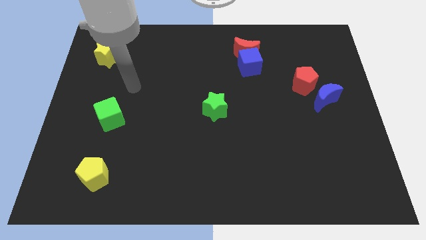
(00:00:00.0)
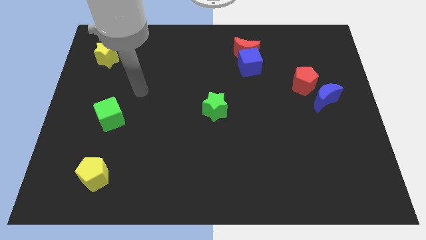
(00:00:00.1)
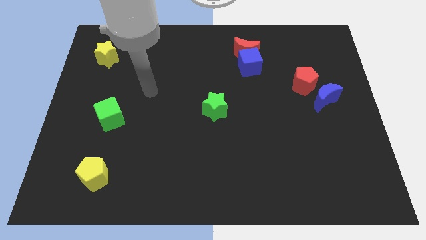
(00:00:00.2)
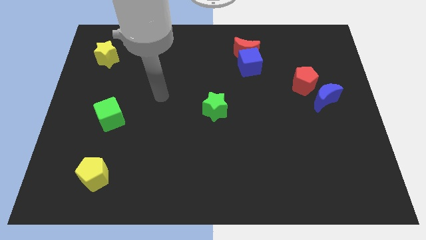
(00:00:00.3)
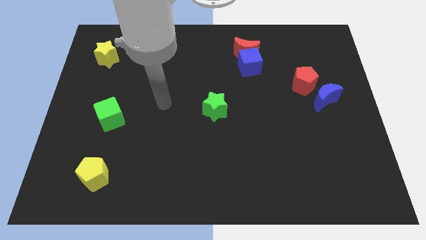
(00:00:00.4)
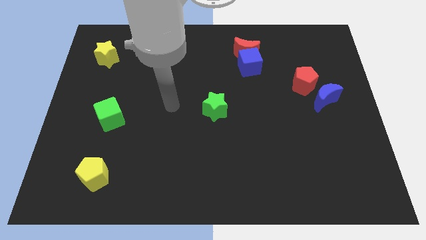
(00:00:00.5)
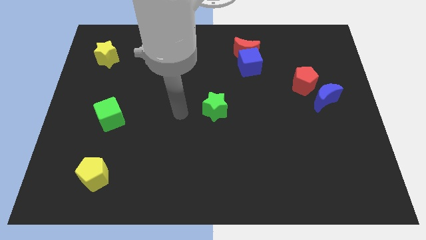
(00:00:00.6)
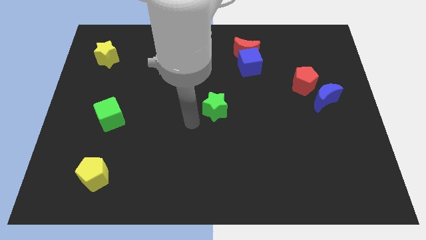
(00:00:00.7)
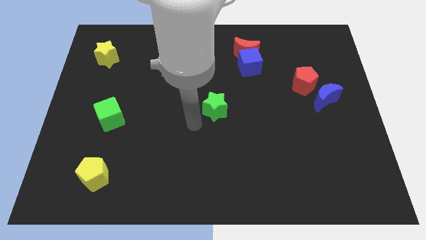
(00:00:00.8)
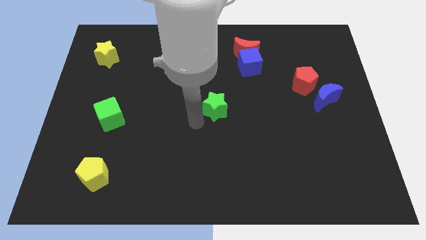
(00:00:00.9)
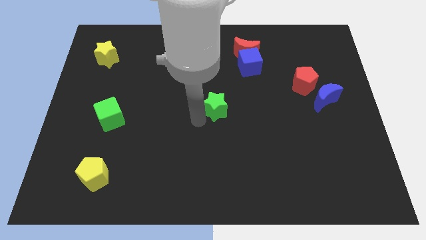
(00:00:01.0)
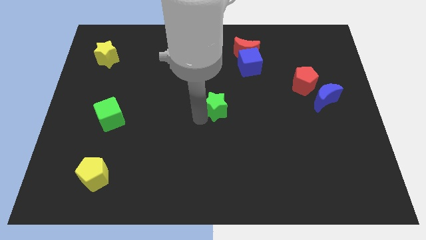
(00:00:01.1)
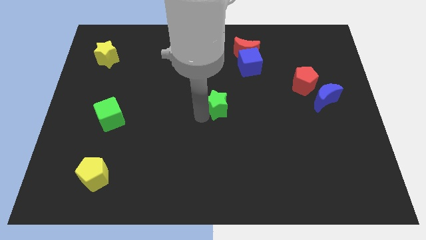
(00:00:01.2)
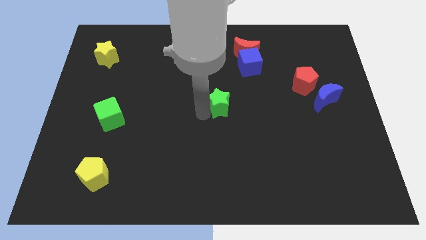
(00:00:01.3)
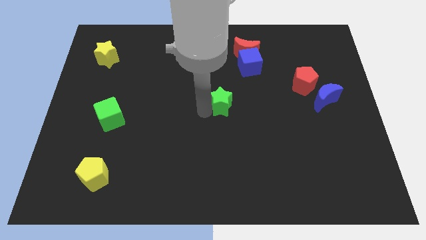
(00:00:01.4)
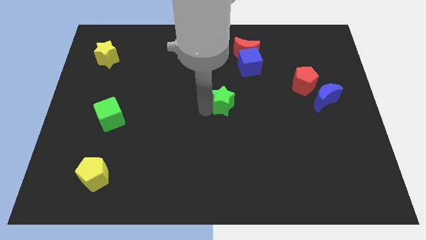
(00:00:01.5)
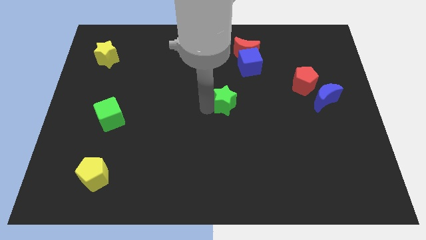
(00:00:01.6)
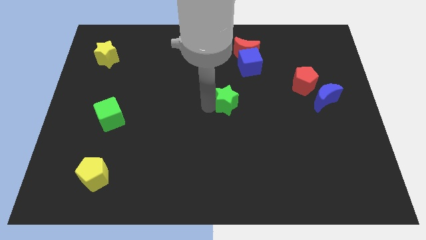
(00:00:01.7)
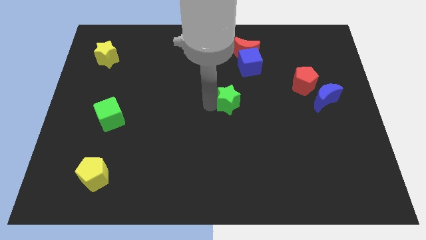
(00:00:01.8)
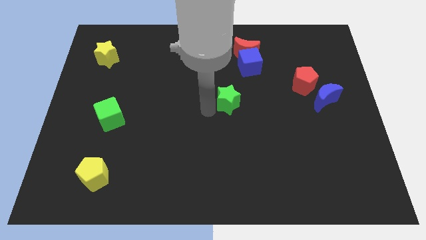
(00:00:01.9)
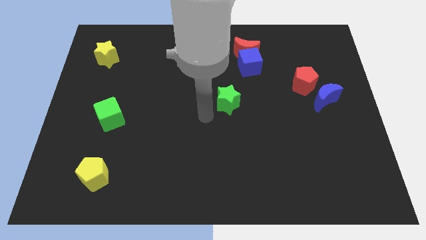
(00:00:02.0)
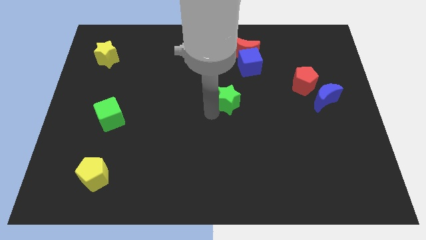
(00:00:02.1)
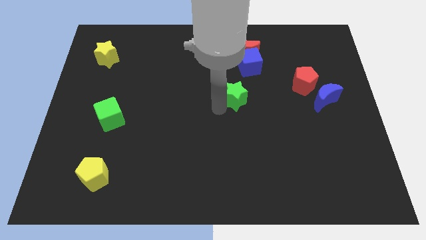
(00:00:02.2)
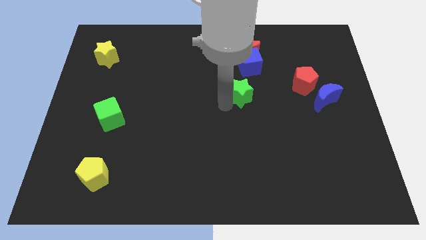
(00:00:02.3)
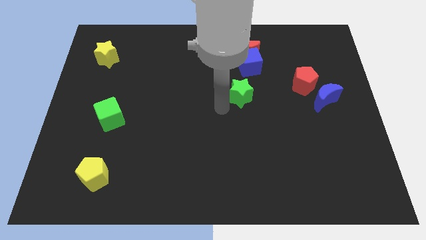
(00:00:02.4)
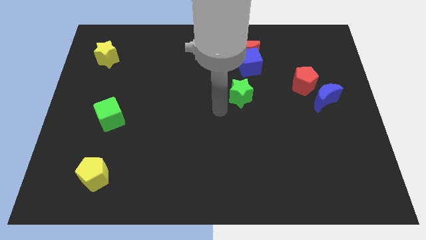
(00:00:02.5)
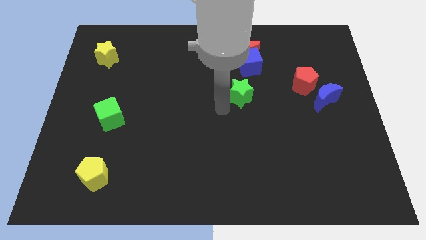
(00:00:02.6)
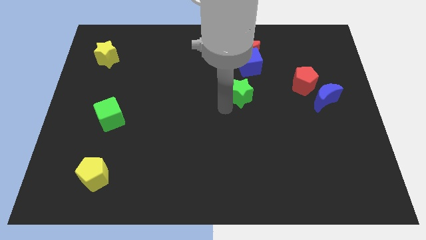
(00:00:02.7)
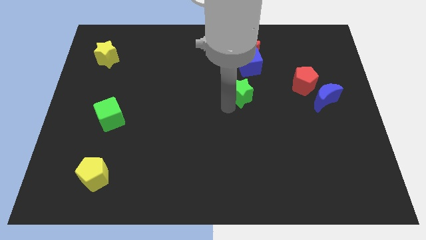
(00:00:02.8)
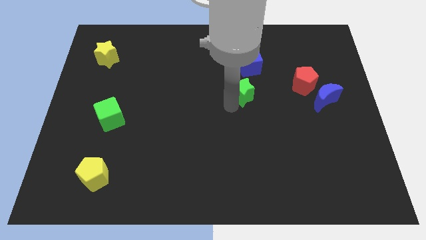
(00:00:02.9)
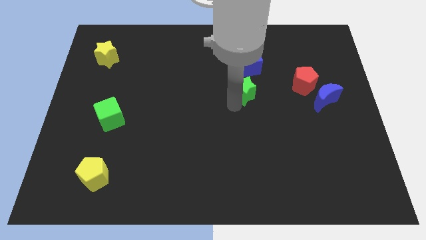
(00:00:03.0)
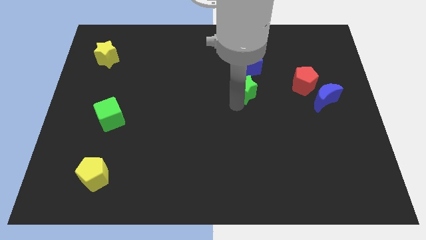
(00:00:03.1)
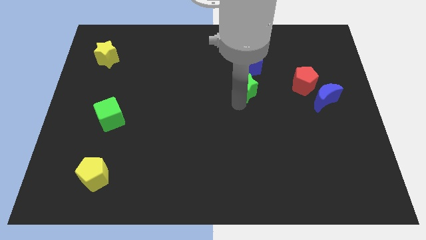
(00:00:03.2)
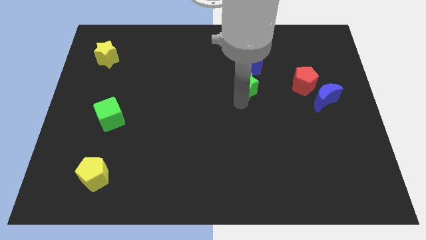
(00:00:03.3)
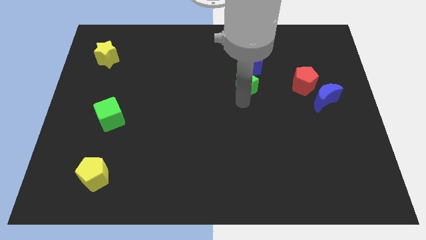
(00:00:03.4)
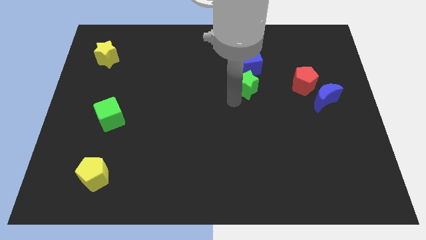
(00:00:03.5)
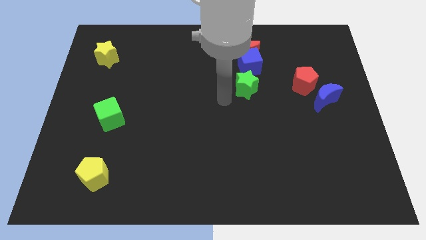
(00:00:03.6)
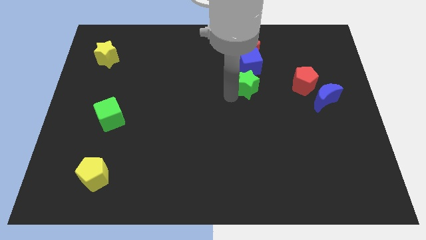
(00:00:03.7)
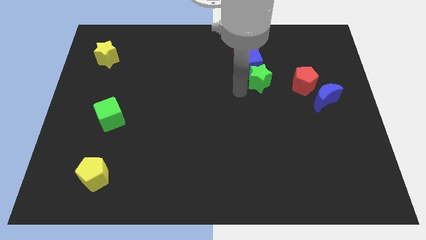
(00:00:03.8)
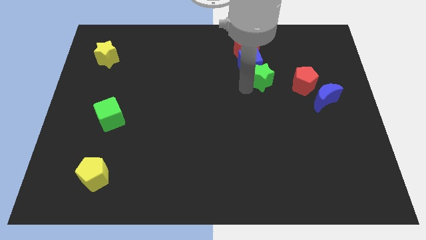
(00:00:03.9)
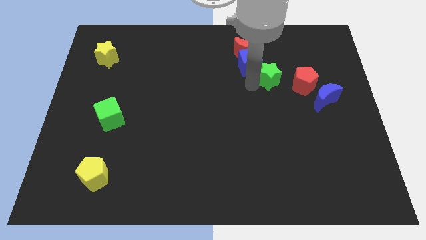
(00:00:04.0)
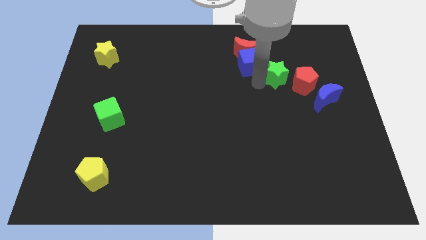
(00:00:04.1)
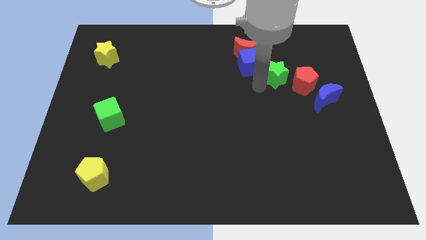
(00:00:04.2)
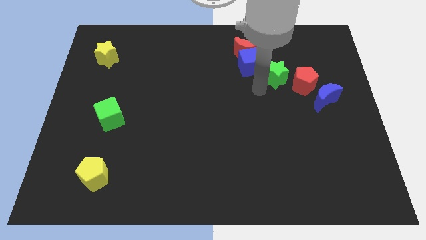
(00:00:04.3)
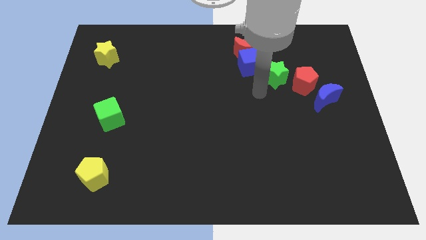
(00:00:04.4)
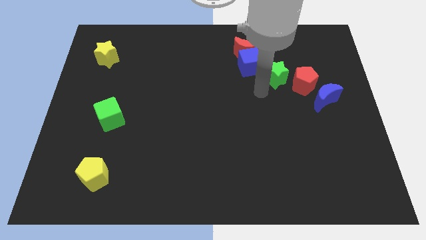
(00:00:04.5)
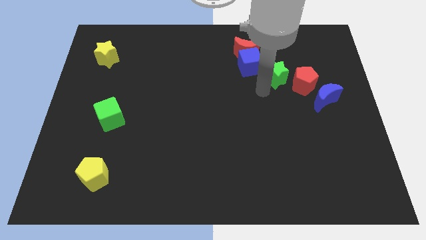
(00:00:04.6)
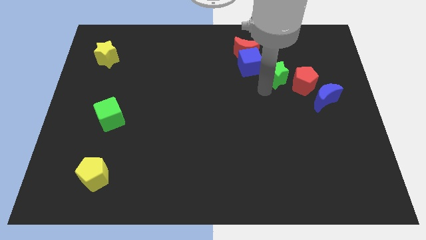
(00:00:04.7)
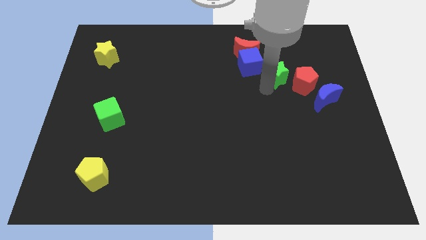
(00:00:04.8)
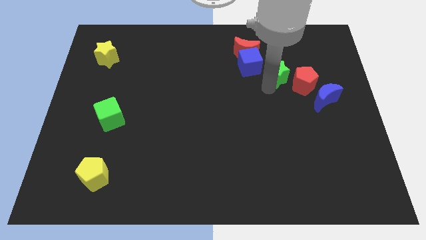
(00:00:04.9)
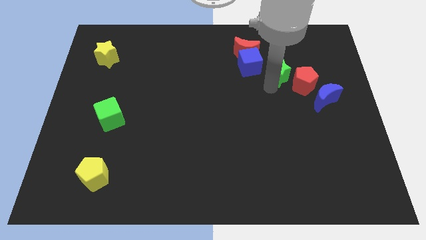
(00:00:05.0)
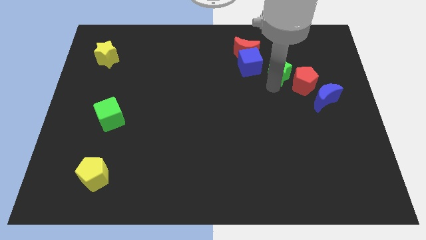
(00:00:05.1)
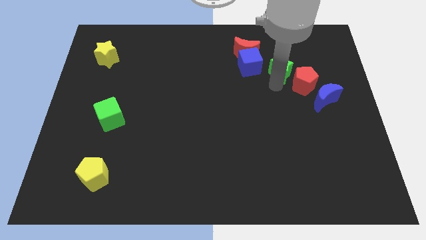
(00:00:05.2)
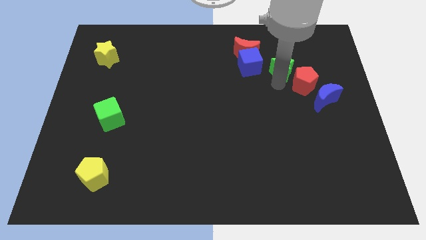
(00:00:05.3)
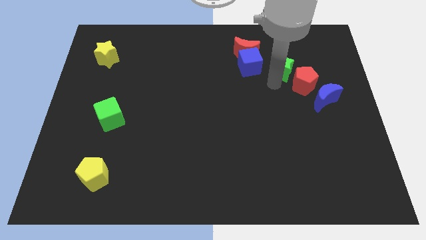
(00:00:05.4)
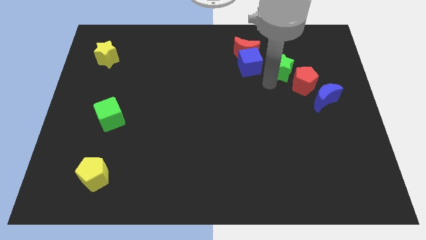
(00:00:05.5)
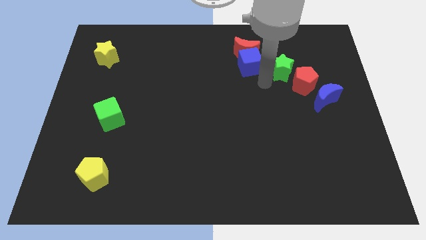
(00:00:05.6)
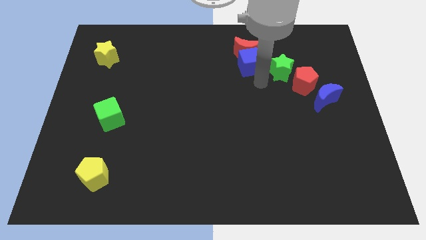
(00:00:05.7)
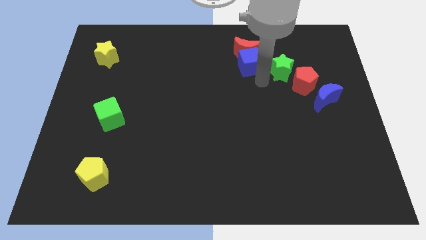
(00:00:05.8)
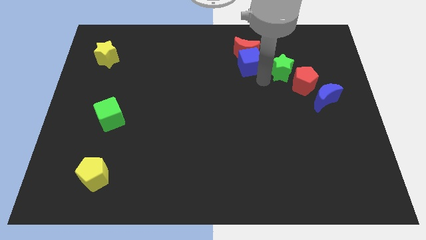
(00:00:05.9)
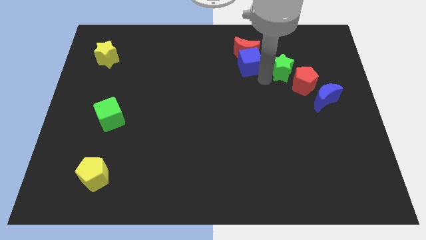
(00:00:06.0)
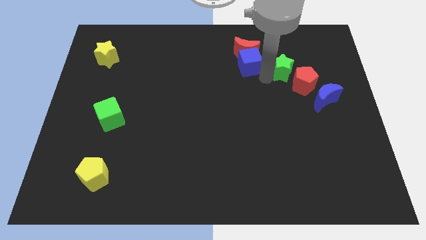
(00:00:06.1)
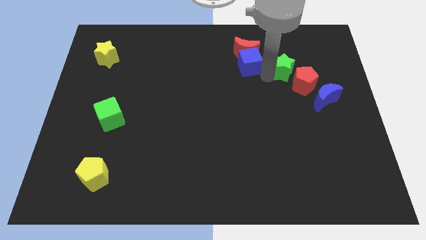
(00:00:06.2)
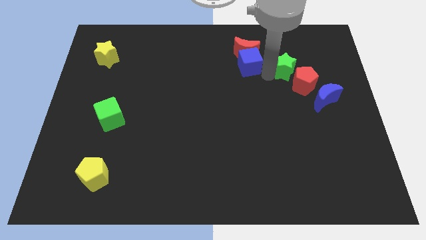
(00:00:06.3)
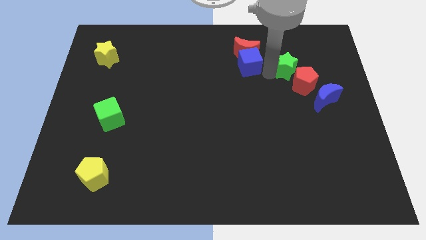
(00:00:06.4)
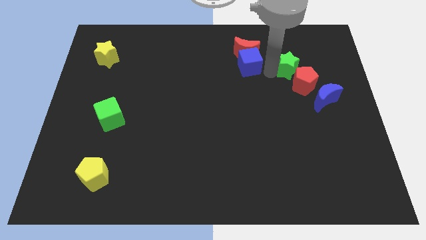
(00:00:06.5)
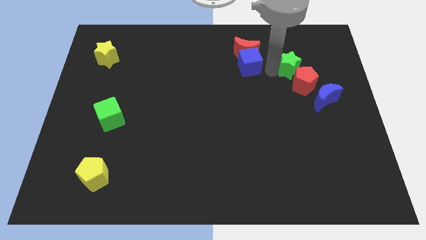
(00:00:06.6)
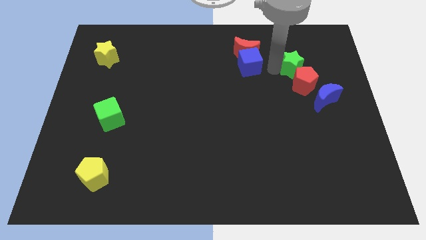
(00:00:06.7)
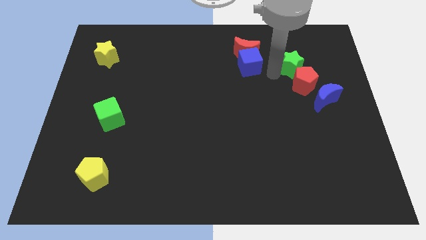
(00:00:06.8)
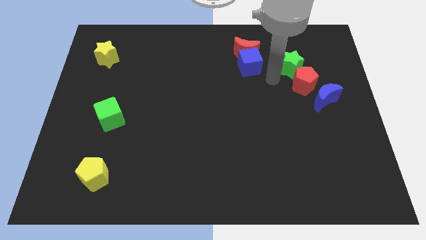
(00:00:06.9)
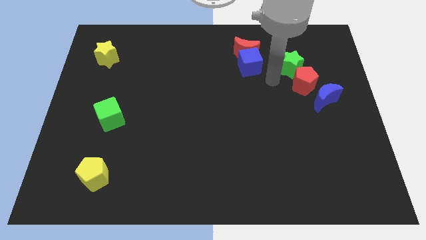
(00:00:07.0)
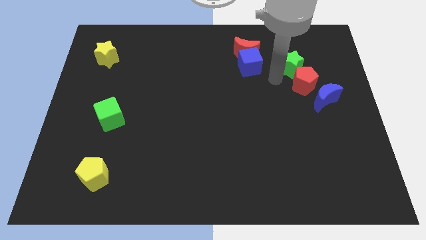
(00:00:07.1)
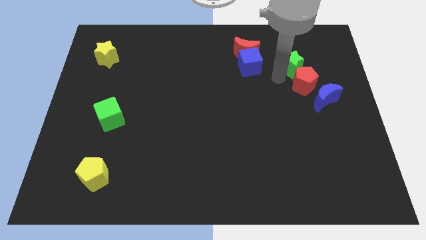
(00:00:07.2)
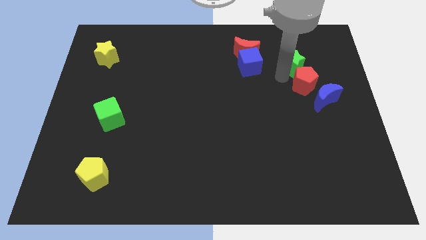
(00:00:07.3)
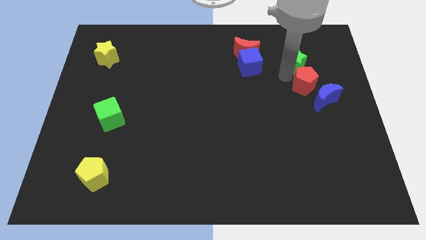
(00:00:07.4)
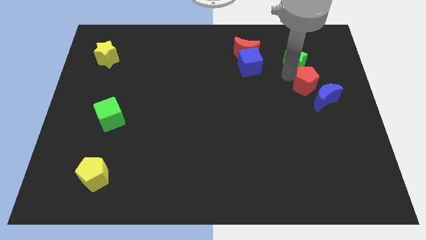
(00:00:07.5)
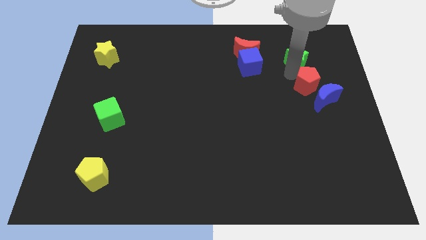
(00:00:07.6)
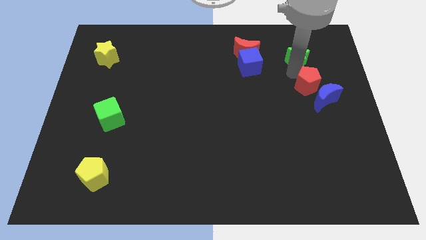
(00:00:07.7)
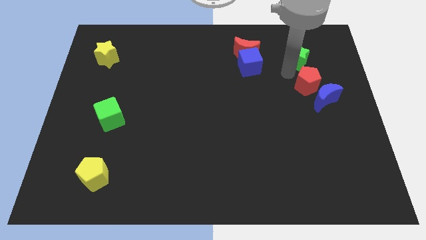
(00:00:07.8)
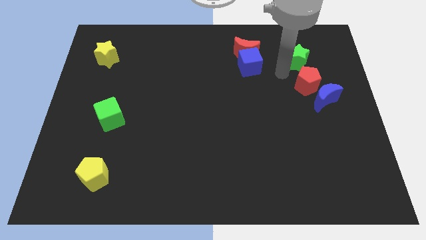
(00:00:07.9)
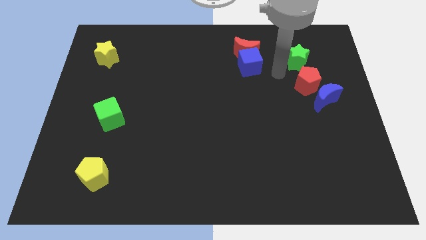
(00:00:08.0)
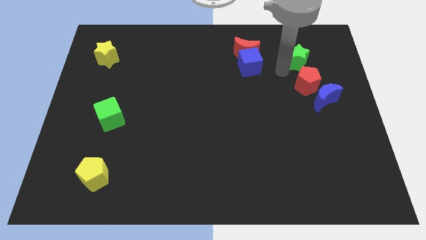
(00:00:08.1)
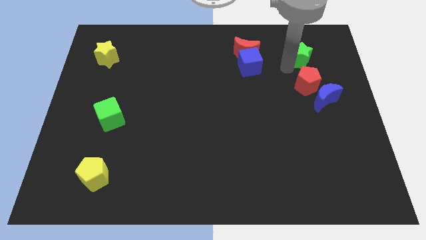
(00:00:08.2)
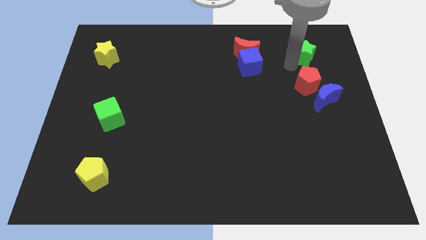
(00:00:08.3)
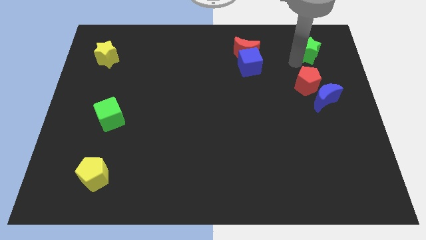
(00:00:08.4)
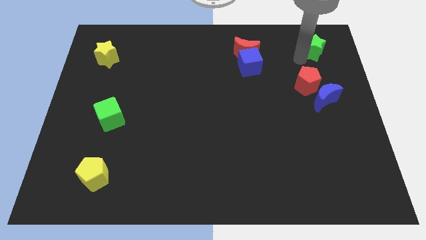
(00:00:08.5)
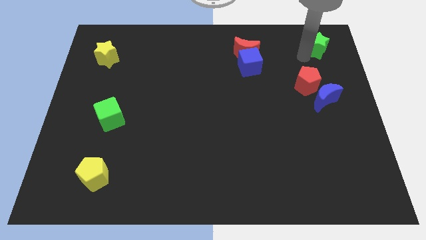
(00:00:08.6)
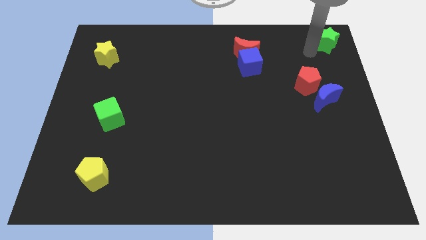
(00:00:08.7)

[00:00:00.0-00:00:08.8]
push the green star to the top right
